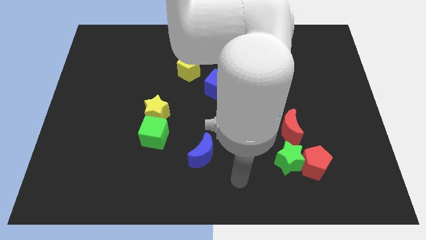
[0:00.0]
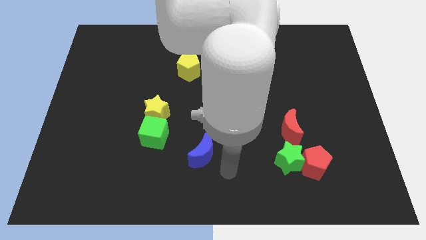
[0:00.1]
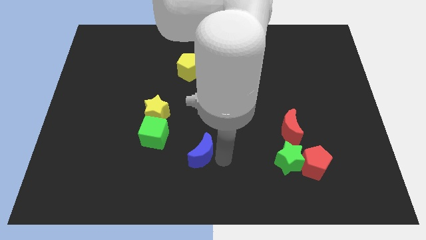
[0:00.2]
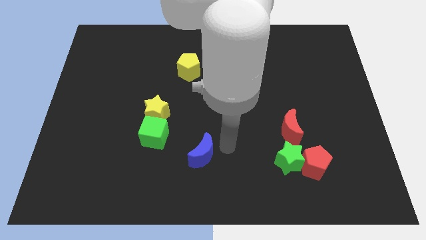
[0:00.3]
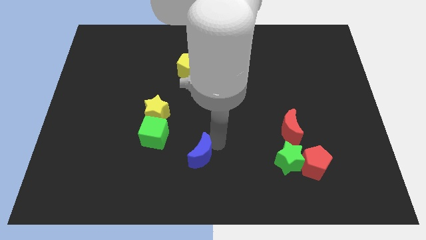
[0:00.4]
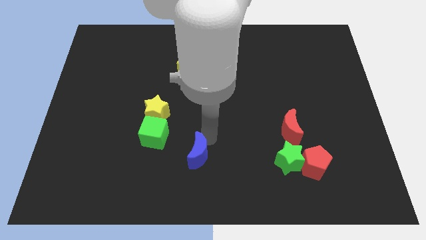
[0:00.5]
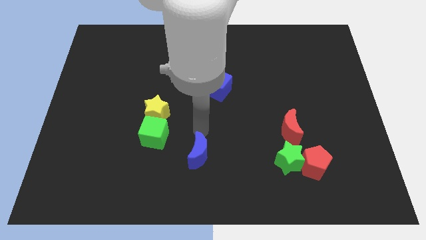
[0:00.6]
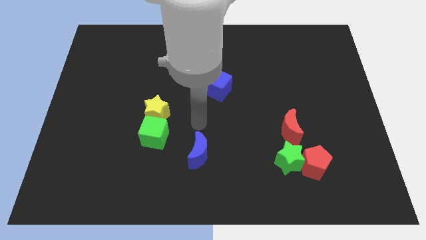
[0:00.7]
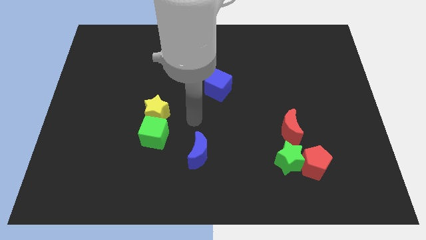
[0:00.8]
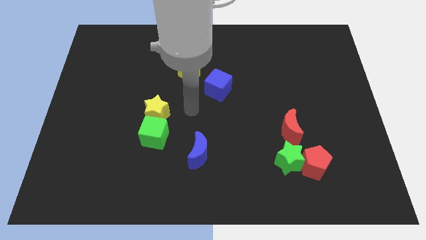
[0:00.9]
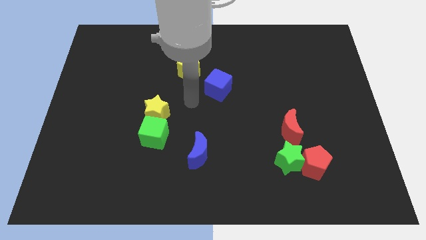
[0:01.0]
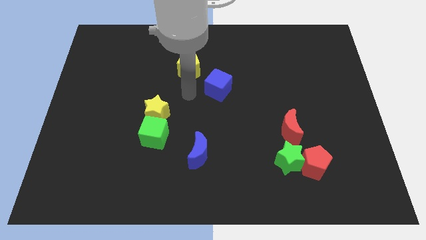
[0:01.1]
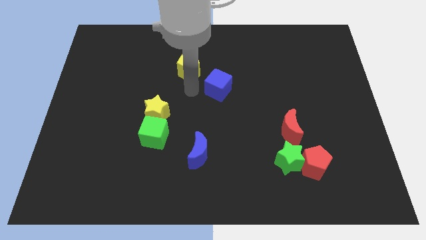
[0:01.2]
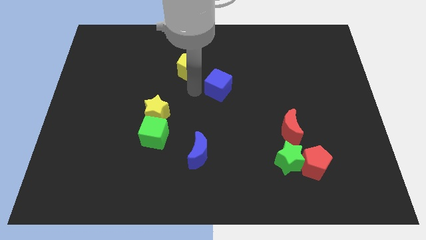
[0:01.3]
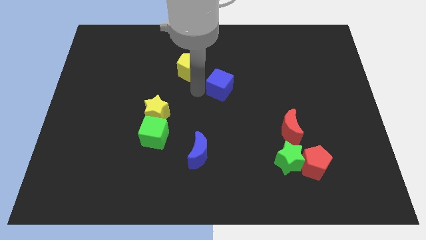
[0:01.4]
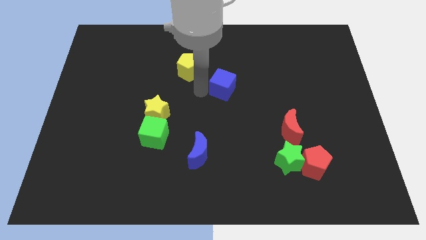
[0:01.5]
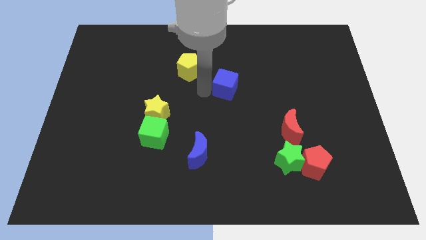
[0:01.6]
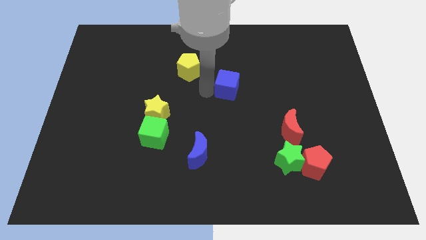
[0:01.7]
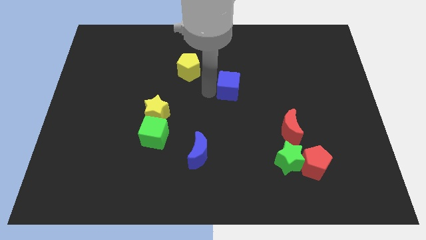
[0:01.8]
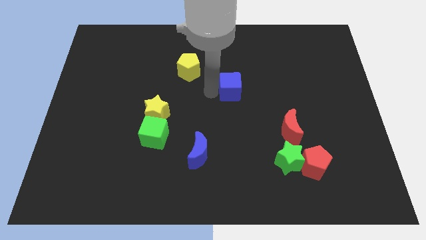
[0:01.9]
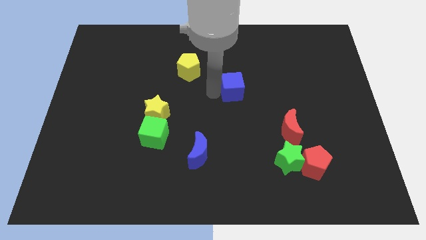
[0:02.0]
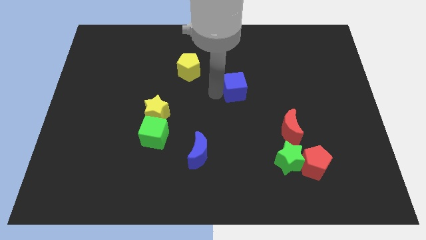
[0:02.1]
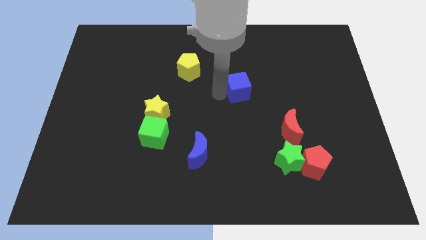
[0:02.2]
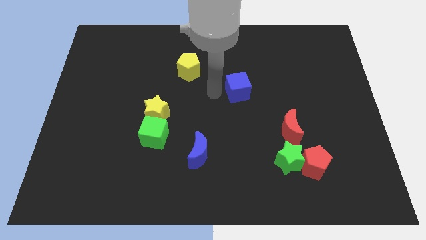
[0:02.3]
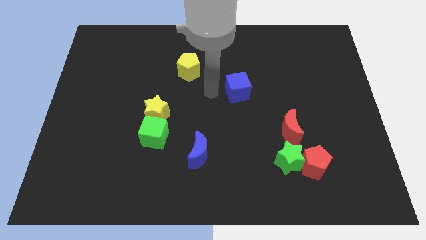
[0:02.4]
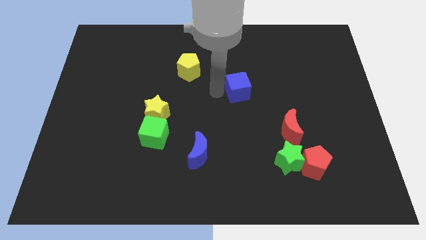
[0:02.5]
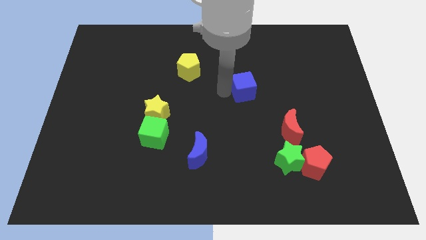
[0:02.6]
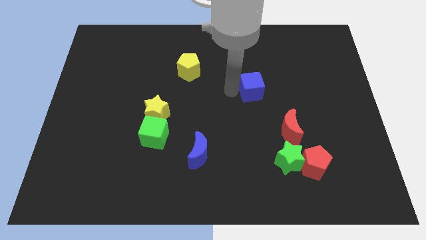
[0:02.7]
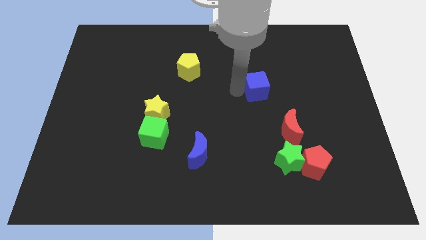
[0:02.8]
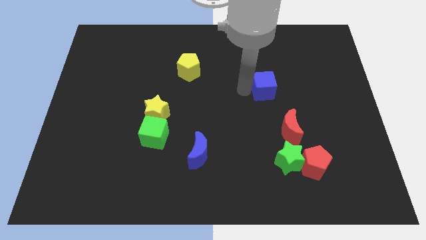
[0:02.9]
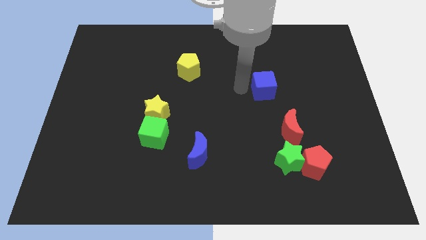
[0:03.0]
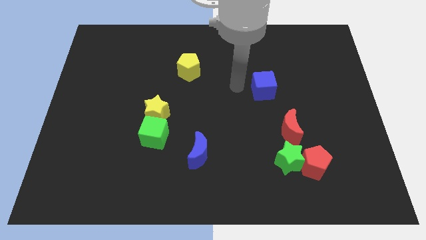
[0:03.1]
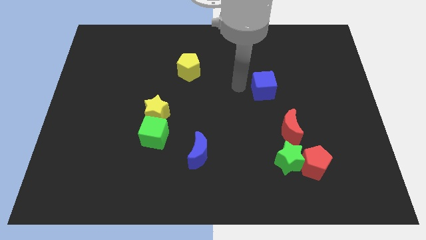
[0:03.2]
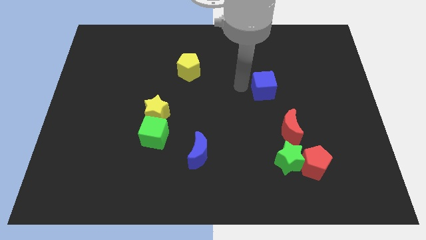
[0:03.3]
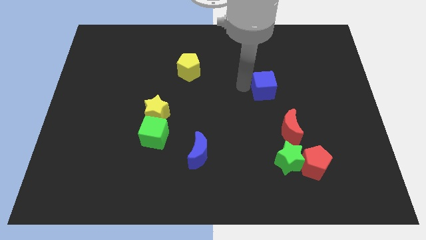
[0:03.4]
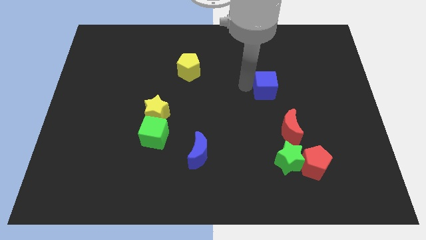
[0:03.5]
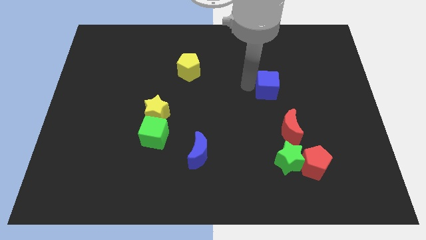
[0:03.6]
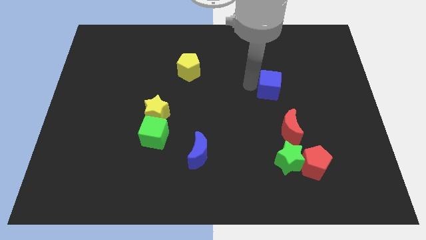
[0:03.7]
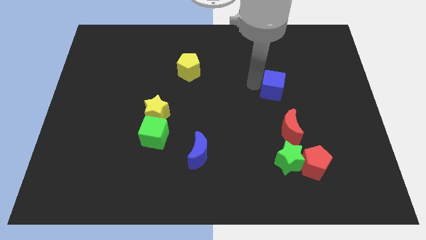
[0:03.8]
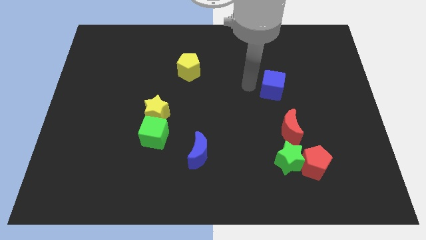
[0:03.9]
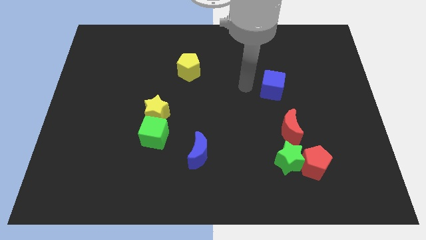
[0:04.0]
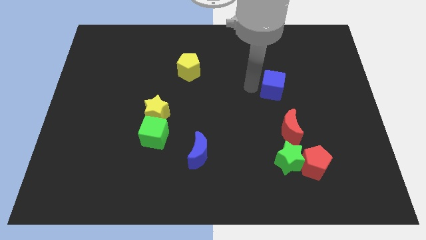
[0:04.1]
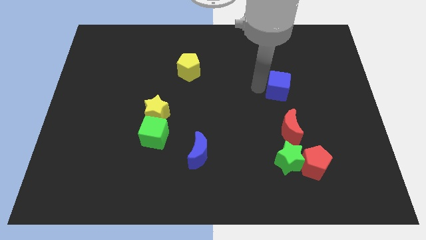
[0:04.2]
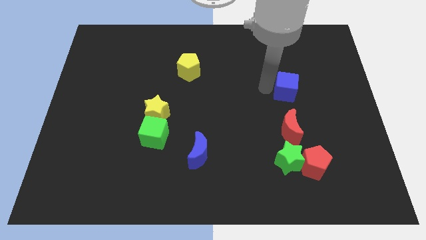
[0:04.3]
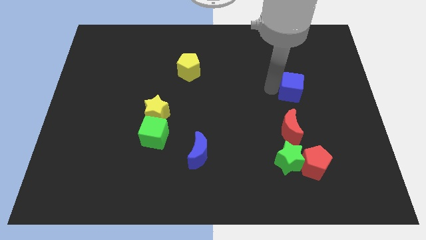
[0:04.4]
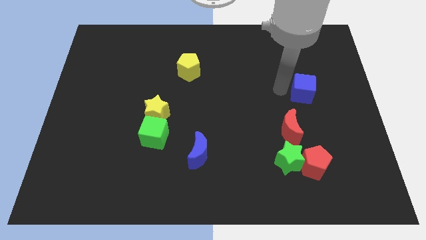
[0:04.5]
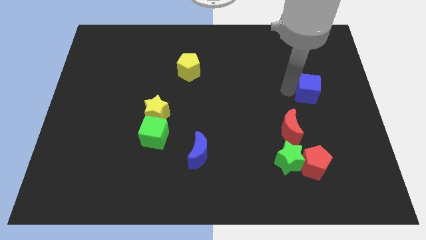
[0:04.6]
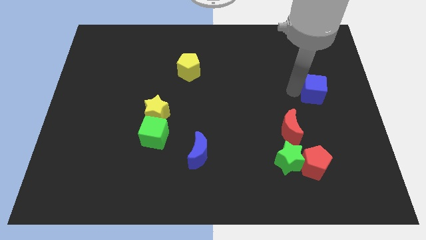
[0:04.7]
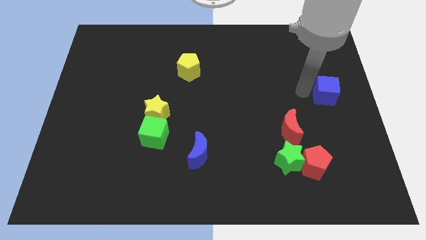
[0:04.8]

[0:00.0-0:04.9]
put the blue cube to the center right

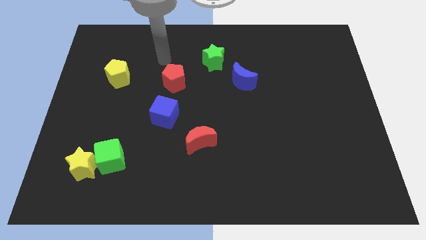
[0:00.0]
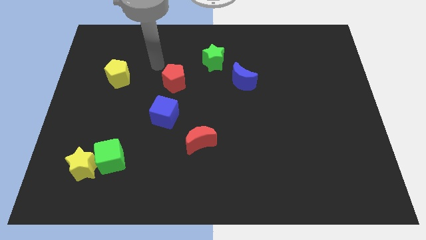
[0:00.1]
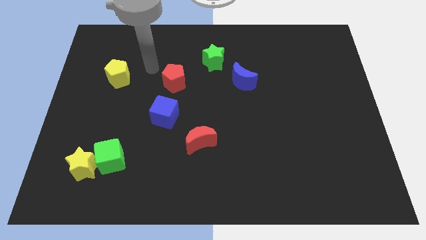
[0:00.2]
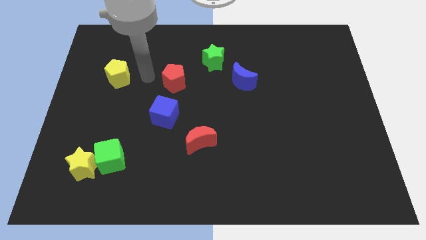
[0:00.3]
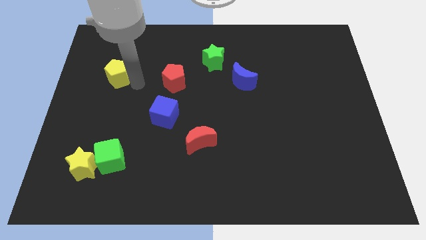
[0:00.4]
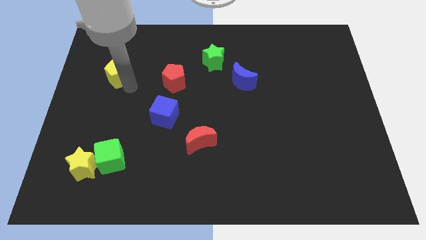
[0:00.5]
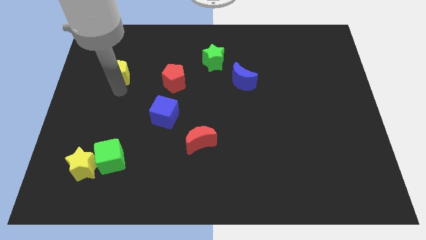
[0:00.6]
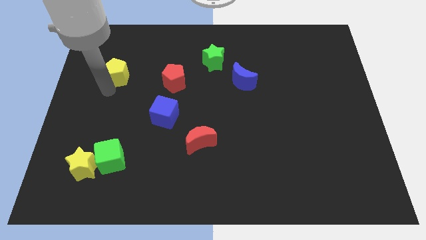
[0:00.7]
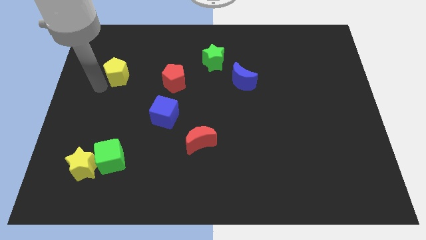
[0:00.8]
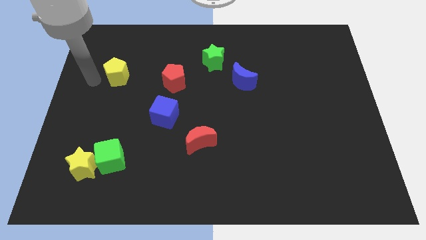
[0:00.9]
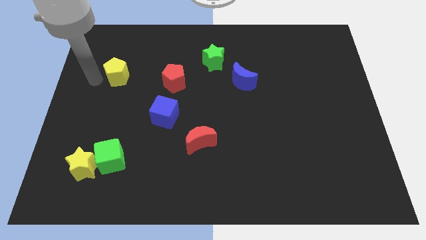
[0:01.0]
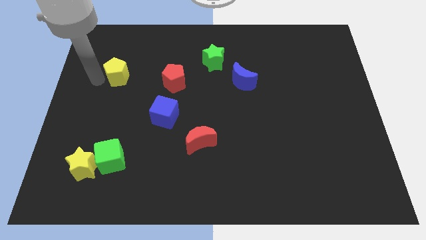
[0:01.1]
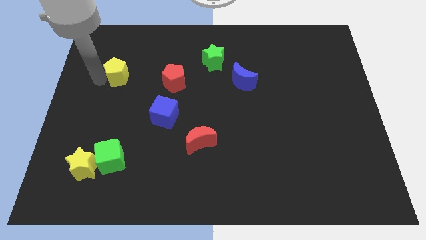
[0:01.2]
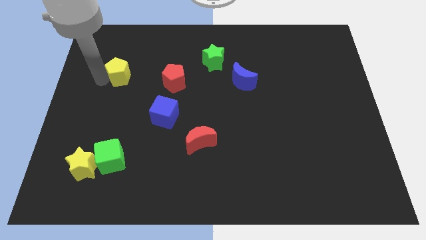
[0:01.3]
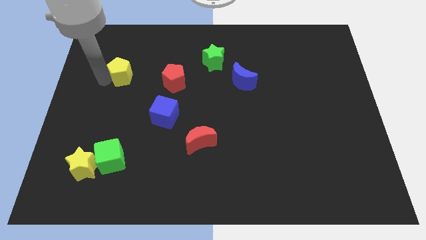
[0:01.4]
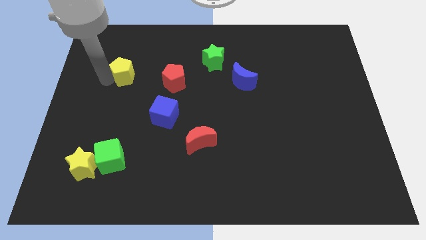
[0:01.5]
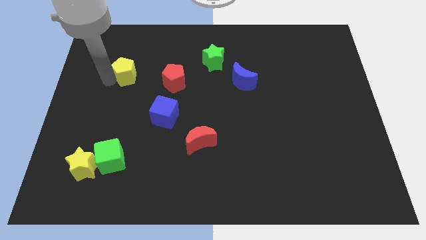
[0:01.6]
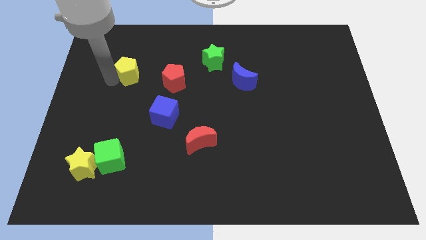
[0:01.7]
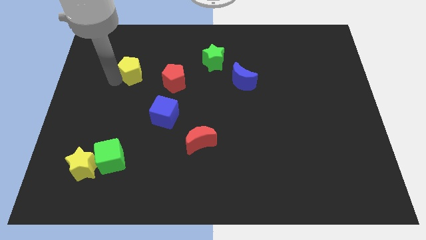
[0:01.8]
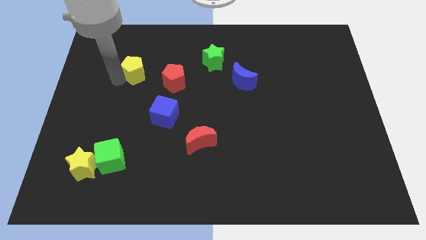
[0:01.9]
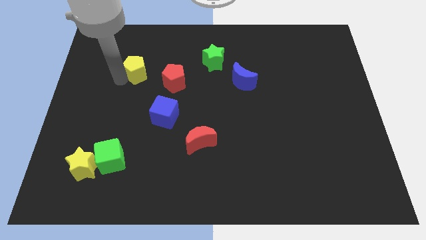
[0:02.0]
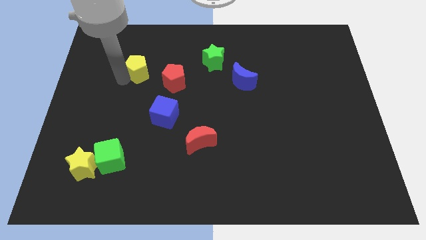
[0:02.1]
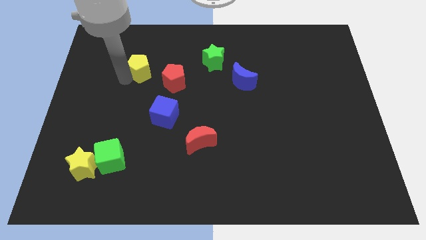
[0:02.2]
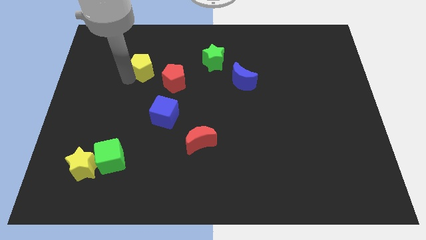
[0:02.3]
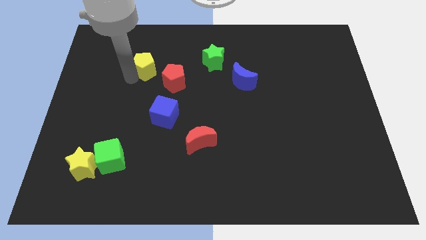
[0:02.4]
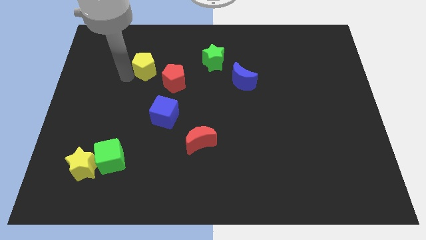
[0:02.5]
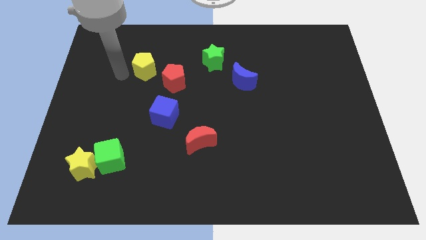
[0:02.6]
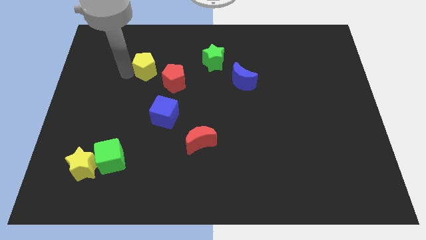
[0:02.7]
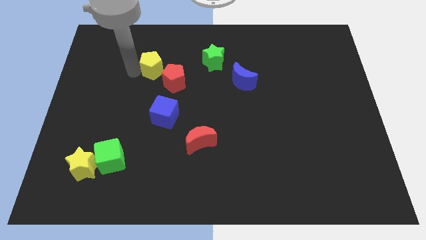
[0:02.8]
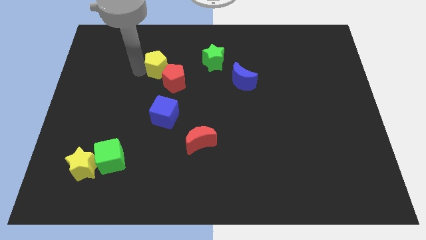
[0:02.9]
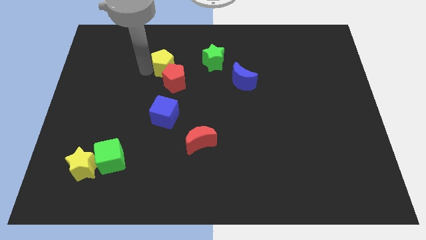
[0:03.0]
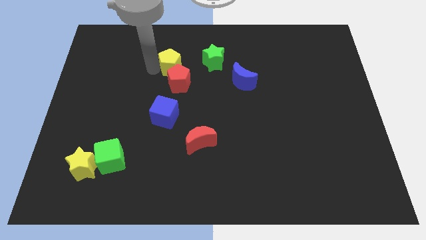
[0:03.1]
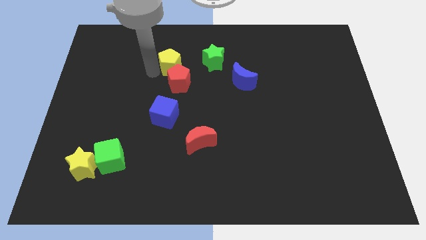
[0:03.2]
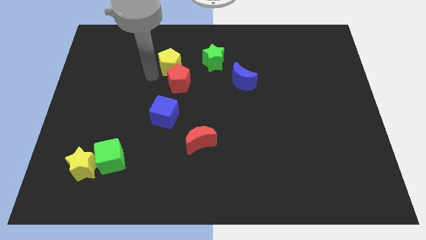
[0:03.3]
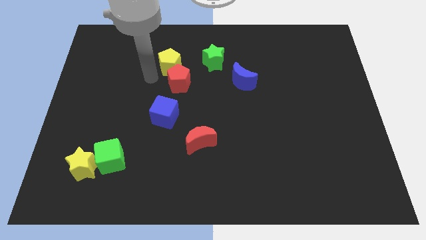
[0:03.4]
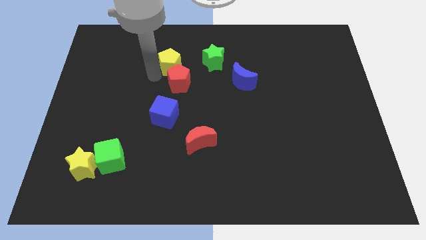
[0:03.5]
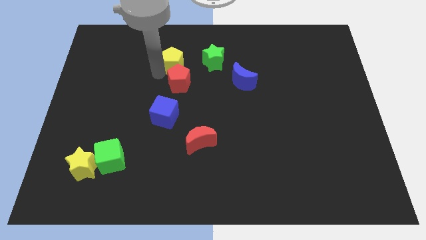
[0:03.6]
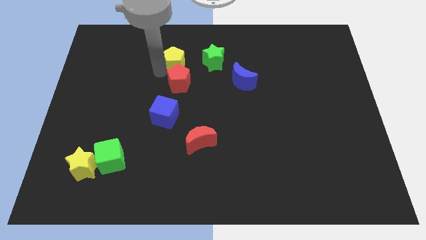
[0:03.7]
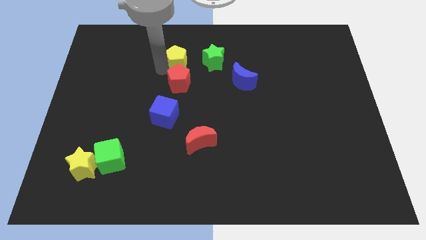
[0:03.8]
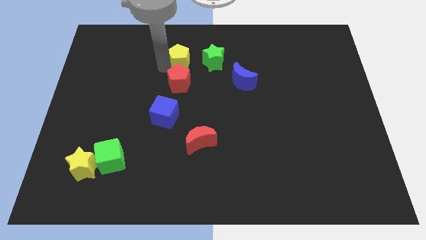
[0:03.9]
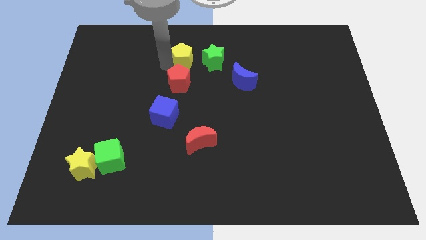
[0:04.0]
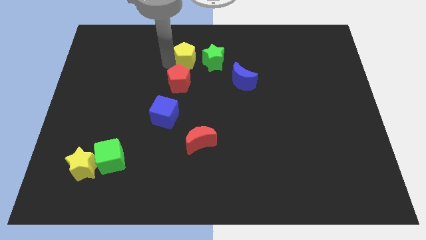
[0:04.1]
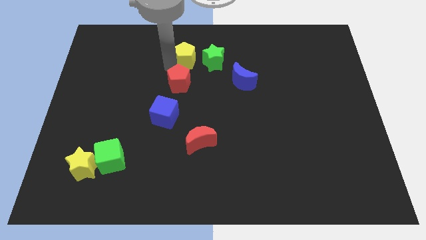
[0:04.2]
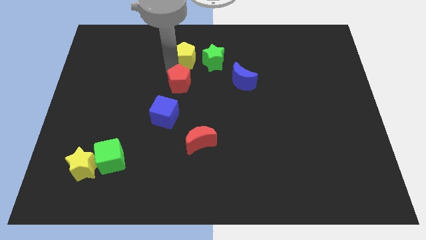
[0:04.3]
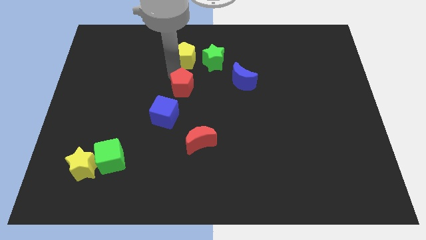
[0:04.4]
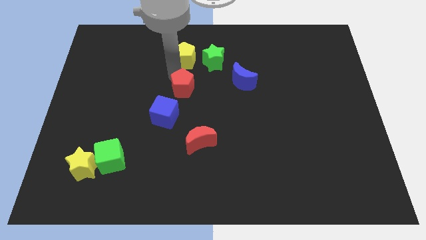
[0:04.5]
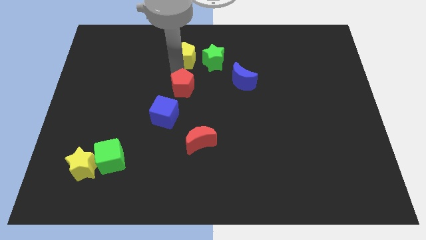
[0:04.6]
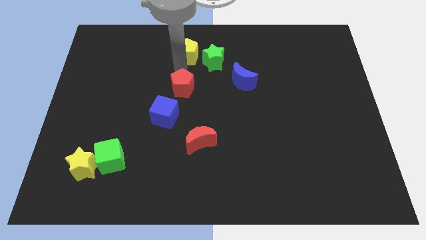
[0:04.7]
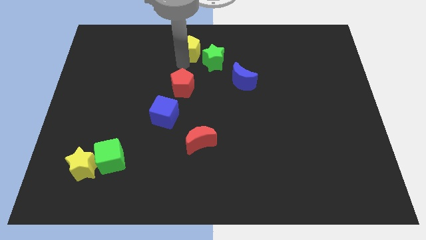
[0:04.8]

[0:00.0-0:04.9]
move the yellow pentagon to the towards your base
